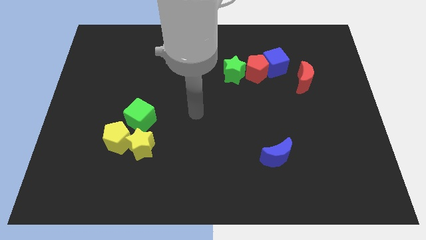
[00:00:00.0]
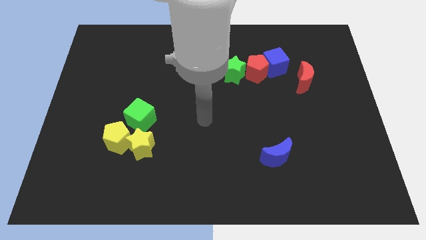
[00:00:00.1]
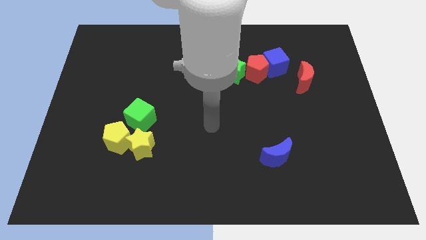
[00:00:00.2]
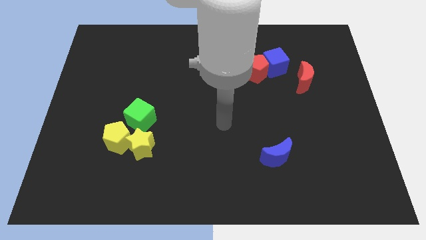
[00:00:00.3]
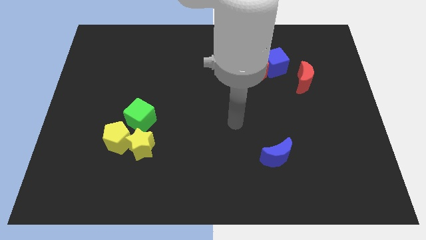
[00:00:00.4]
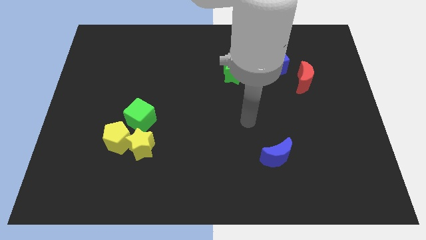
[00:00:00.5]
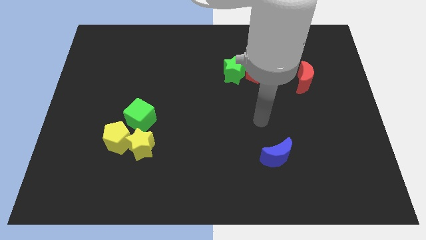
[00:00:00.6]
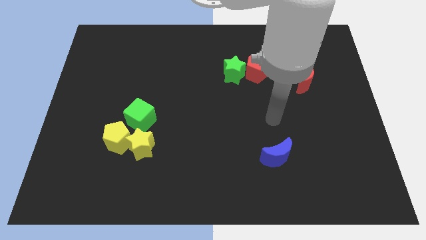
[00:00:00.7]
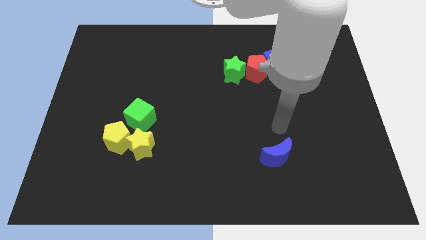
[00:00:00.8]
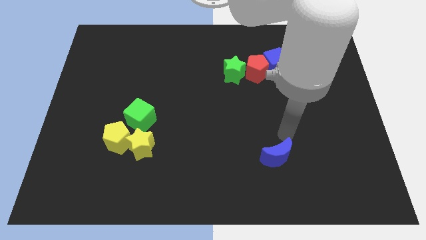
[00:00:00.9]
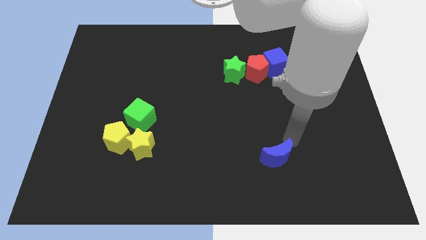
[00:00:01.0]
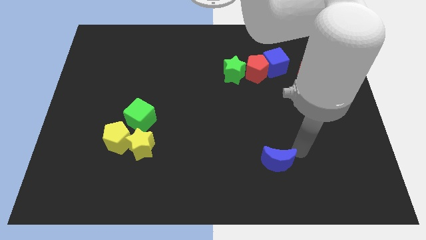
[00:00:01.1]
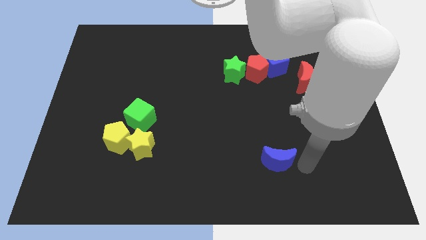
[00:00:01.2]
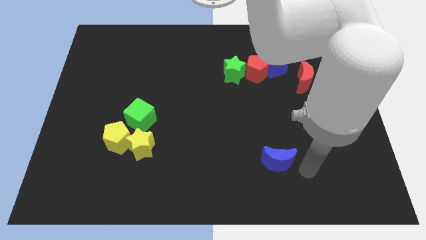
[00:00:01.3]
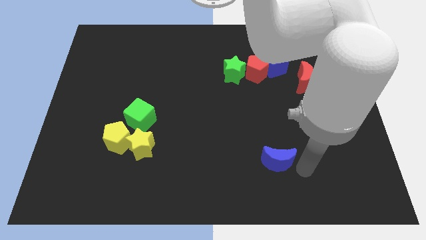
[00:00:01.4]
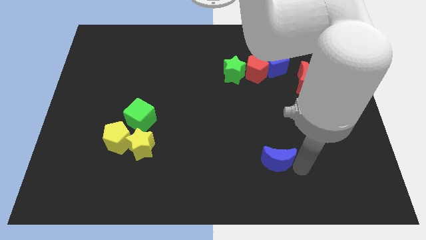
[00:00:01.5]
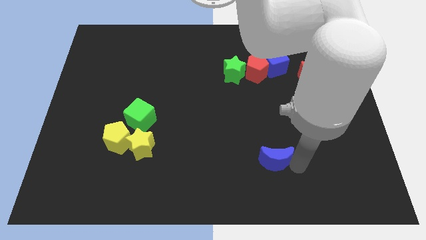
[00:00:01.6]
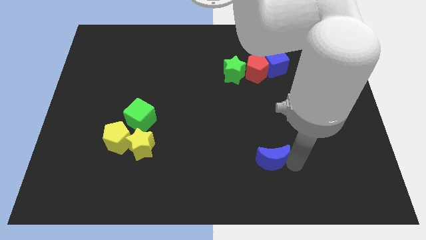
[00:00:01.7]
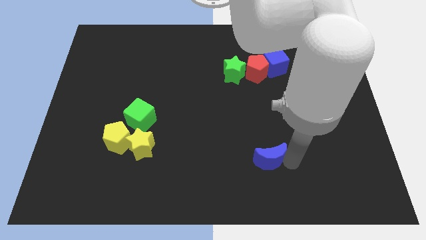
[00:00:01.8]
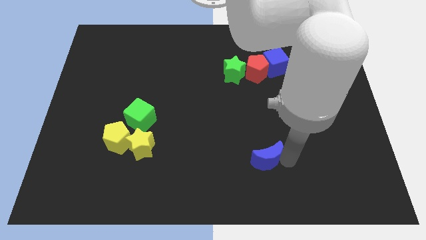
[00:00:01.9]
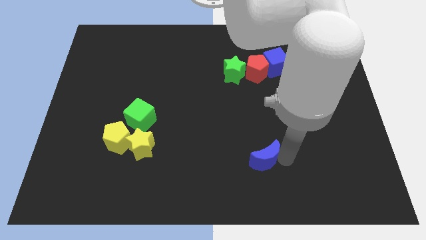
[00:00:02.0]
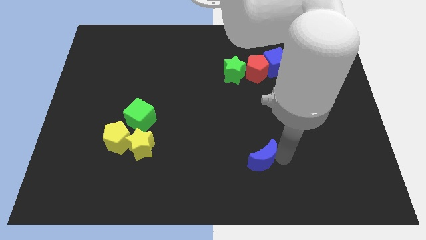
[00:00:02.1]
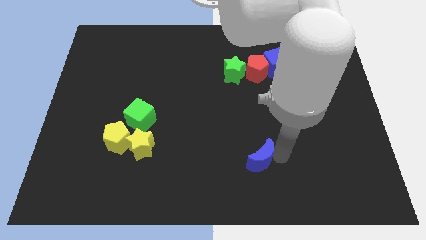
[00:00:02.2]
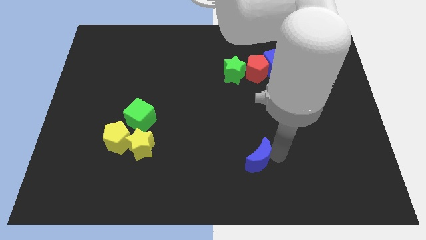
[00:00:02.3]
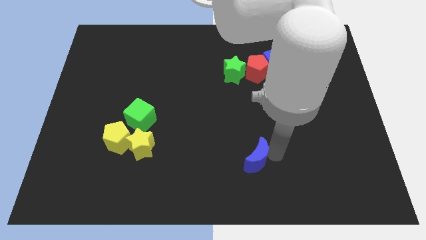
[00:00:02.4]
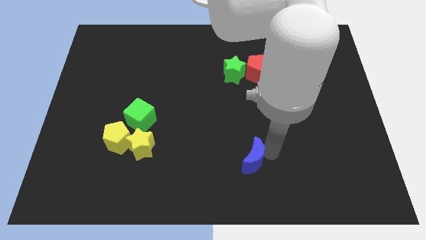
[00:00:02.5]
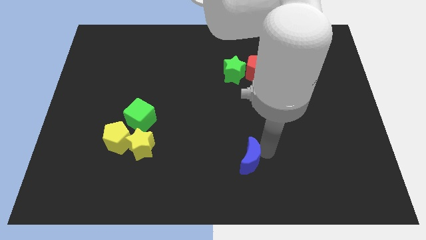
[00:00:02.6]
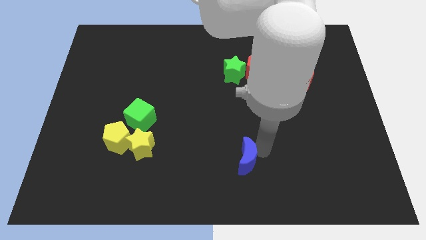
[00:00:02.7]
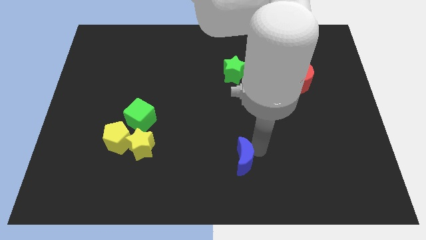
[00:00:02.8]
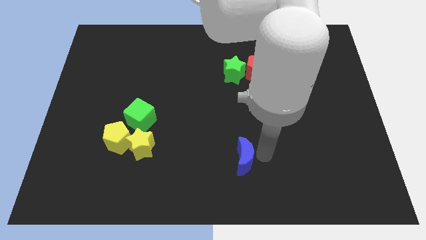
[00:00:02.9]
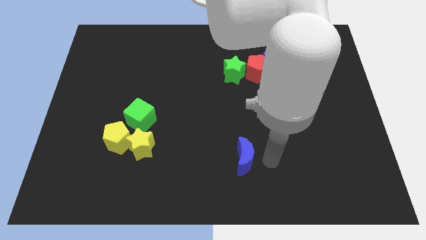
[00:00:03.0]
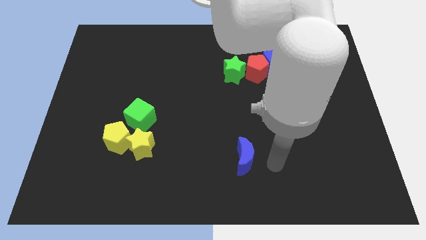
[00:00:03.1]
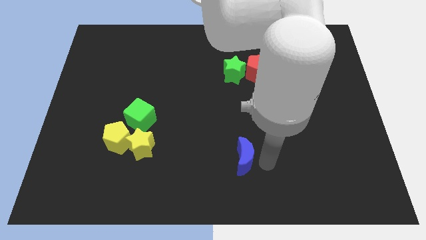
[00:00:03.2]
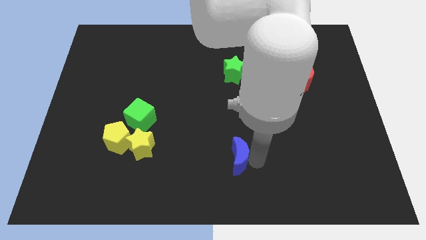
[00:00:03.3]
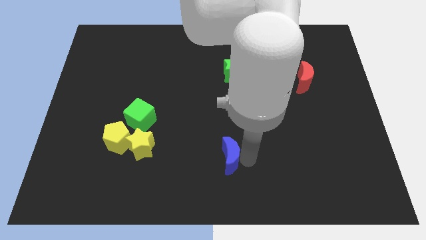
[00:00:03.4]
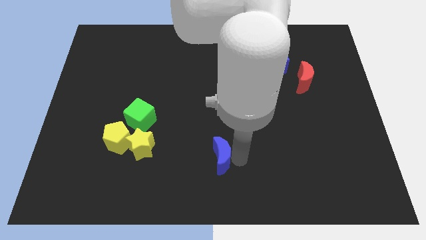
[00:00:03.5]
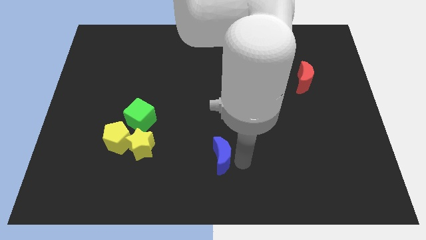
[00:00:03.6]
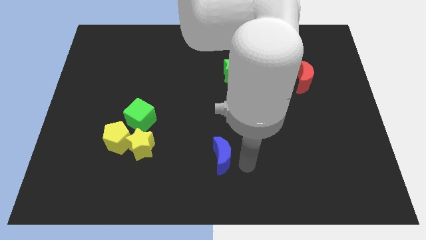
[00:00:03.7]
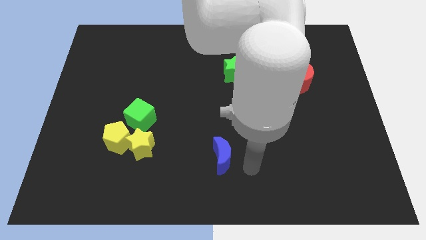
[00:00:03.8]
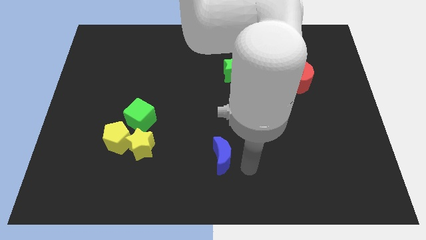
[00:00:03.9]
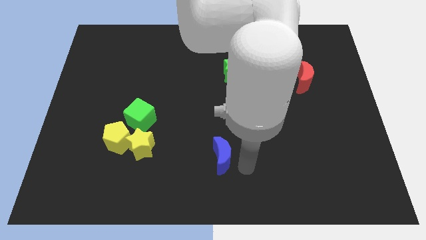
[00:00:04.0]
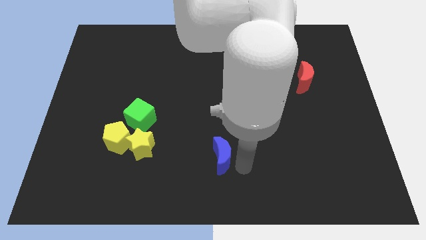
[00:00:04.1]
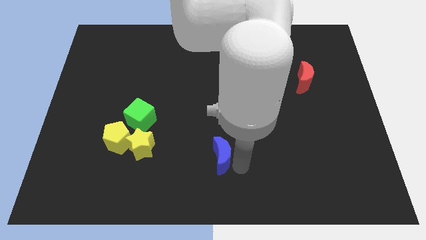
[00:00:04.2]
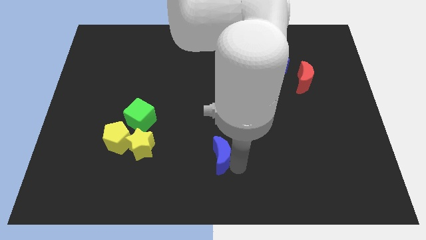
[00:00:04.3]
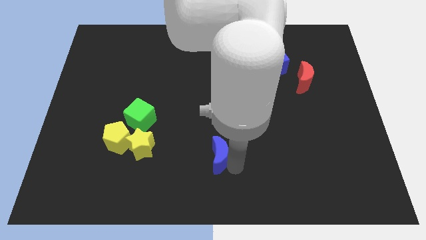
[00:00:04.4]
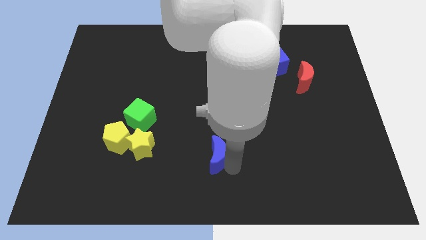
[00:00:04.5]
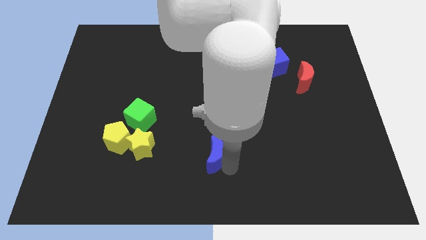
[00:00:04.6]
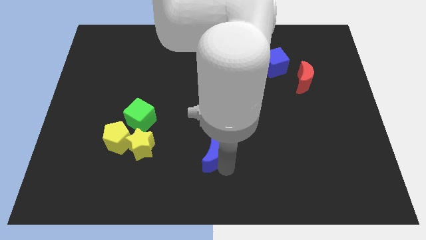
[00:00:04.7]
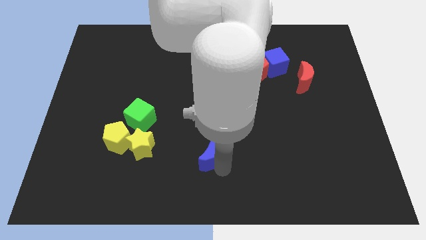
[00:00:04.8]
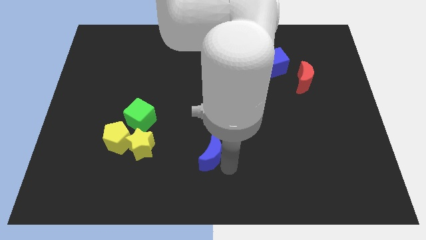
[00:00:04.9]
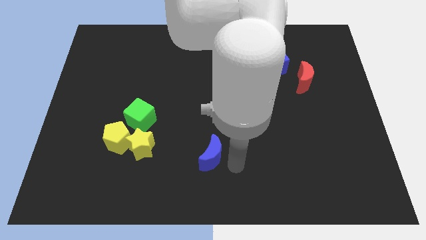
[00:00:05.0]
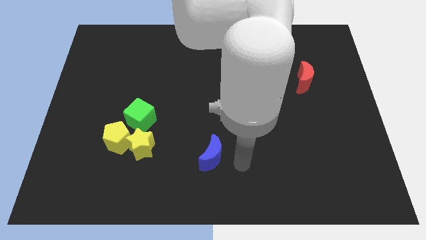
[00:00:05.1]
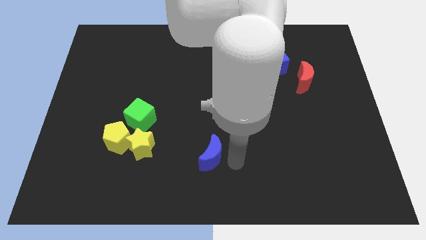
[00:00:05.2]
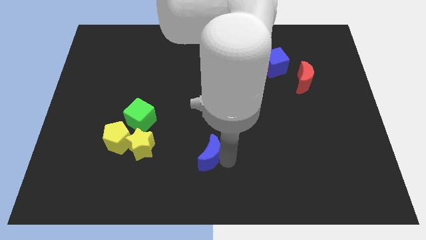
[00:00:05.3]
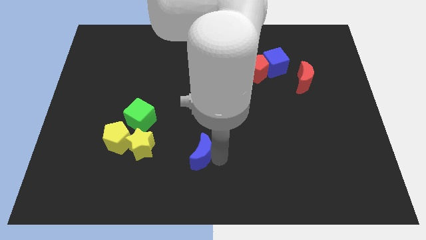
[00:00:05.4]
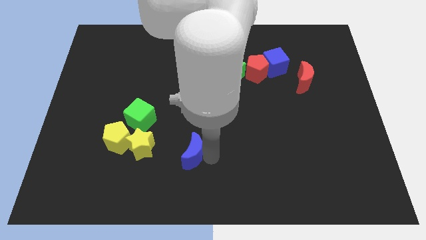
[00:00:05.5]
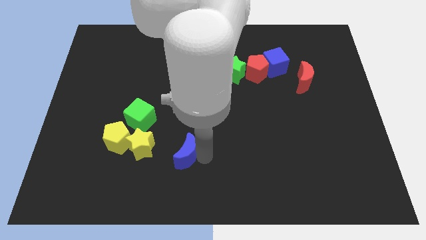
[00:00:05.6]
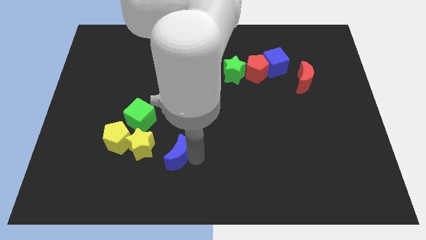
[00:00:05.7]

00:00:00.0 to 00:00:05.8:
move the blue moon to the right of the yellow pentagon

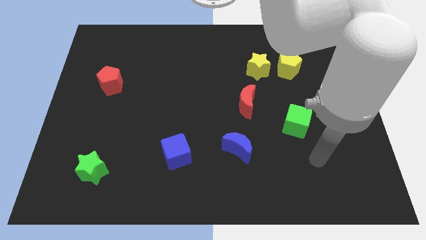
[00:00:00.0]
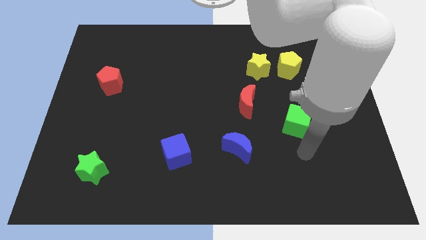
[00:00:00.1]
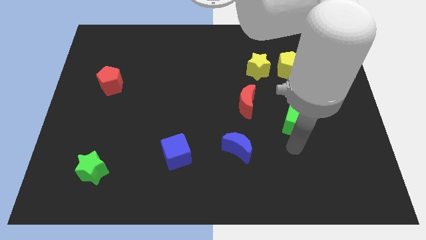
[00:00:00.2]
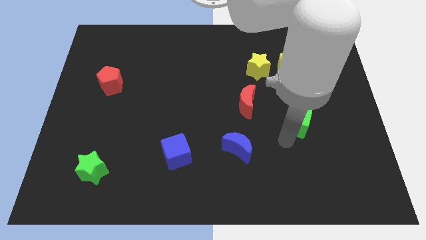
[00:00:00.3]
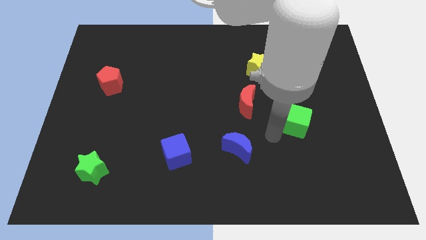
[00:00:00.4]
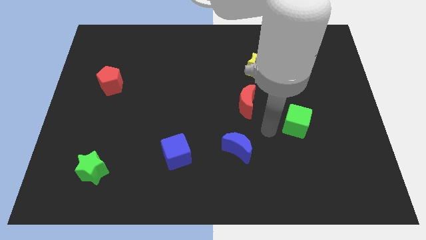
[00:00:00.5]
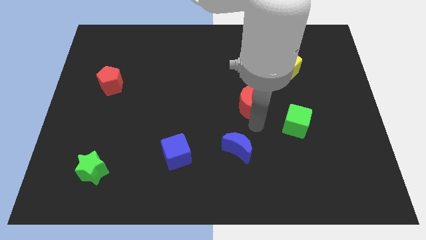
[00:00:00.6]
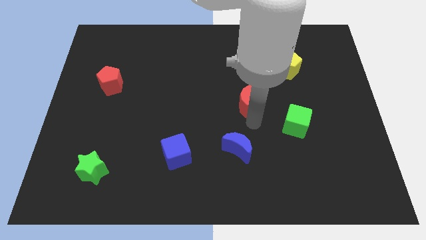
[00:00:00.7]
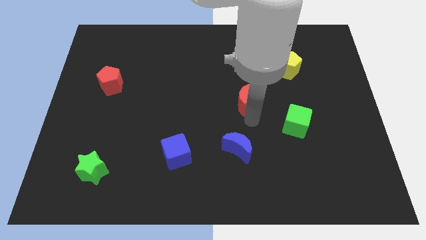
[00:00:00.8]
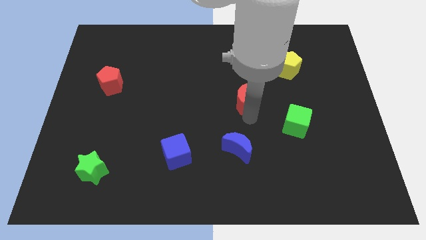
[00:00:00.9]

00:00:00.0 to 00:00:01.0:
slide the red moon diagonally down and to the left of the yellow star
